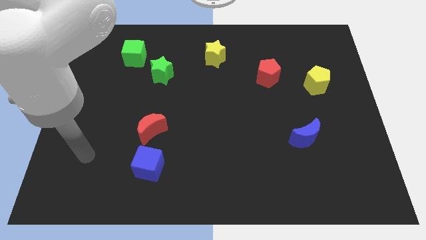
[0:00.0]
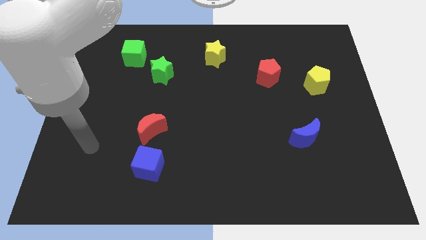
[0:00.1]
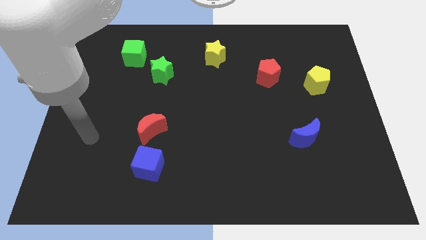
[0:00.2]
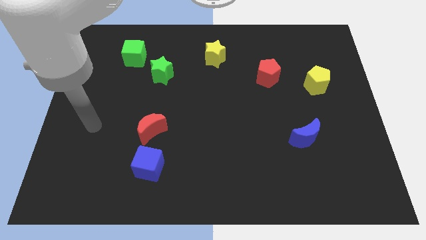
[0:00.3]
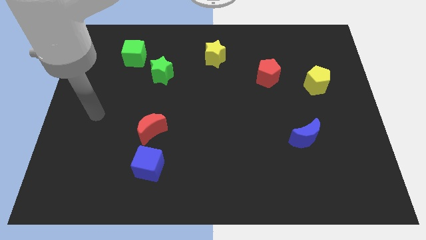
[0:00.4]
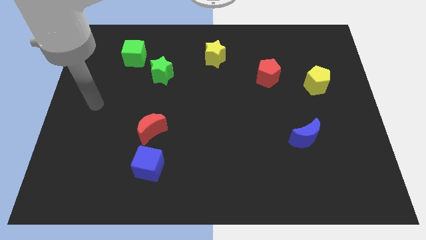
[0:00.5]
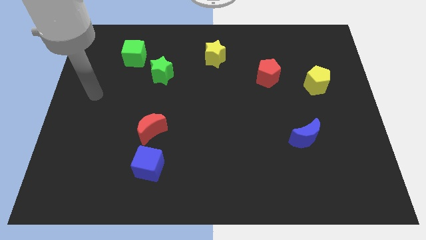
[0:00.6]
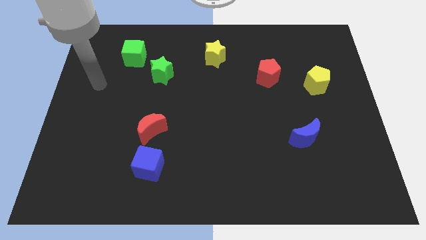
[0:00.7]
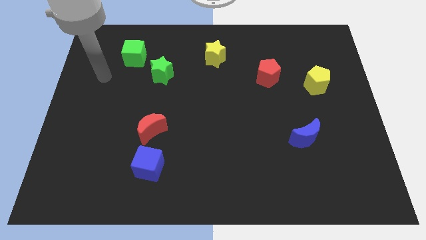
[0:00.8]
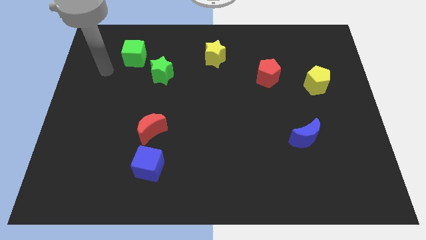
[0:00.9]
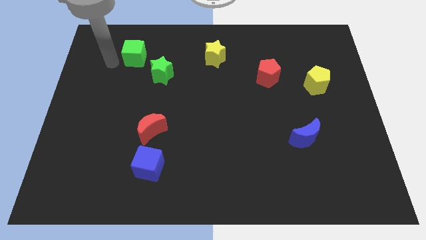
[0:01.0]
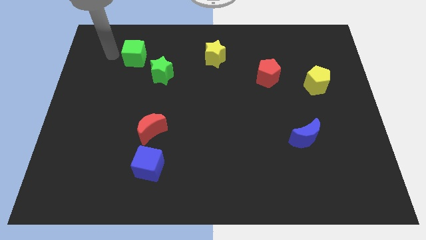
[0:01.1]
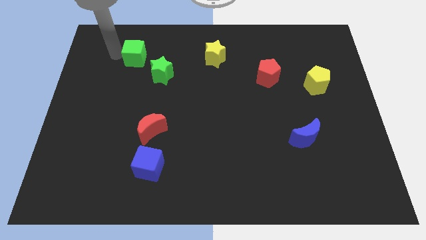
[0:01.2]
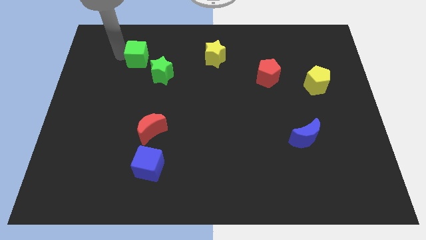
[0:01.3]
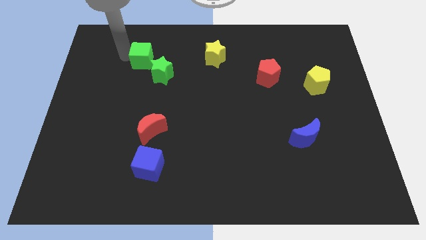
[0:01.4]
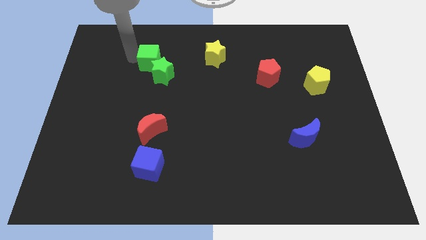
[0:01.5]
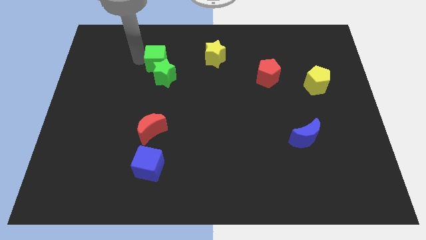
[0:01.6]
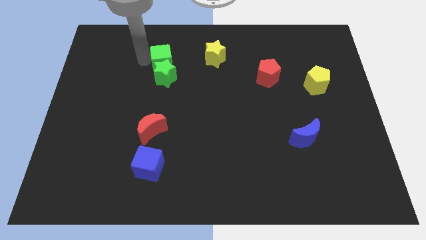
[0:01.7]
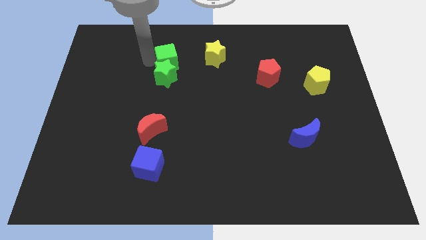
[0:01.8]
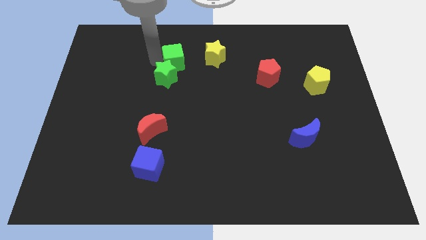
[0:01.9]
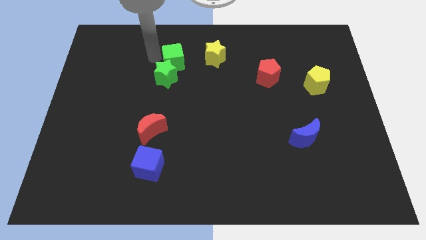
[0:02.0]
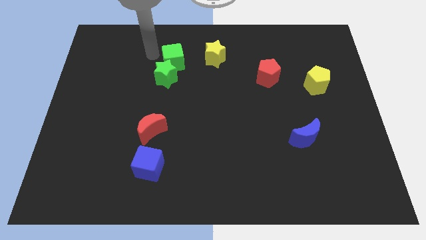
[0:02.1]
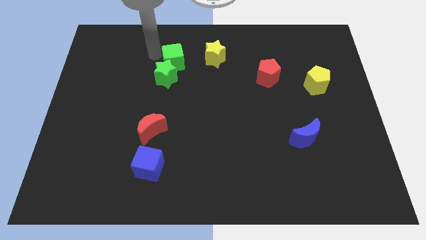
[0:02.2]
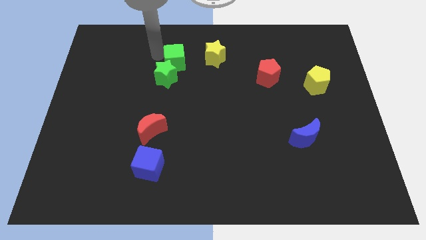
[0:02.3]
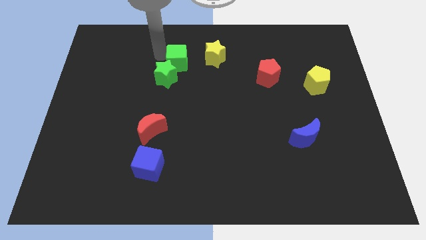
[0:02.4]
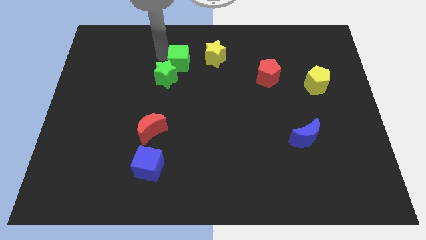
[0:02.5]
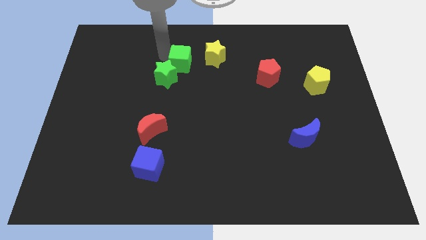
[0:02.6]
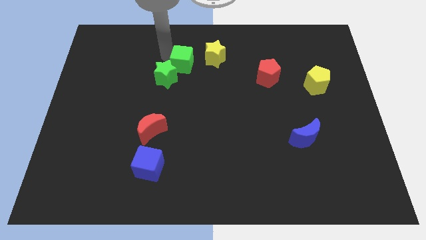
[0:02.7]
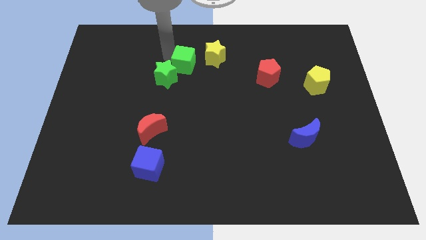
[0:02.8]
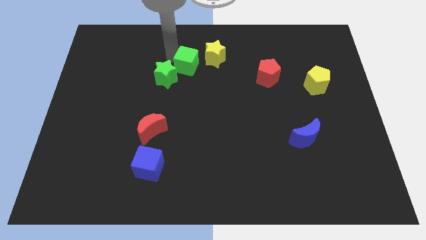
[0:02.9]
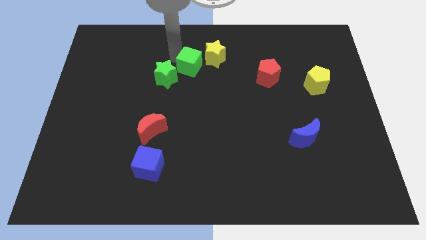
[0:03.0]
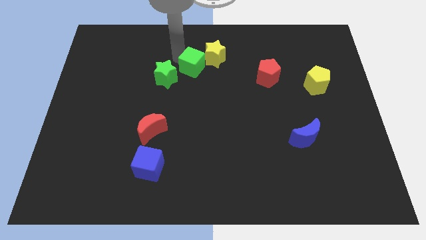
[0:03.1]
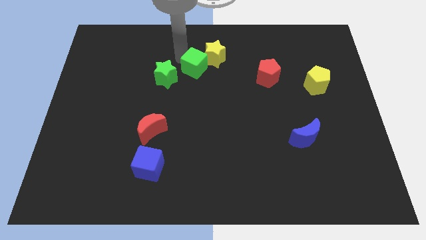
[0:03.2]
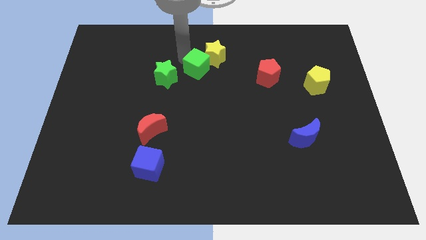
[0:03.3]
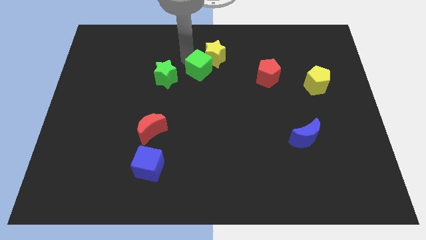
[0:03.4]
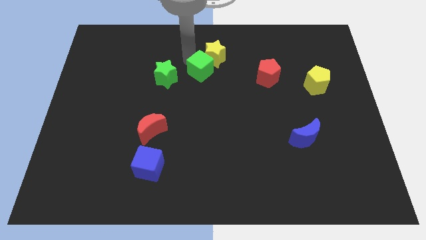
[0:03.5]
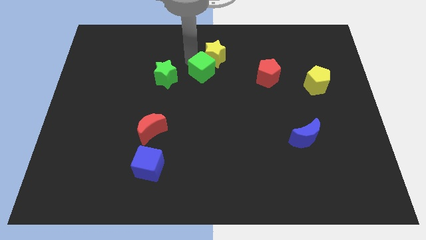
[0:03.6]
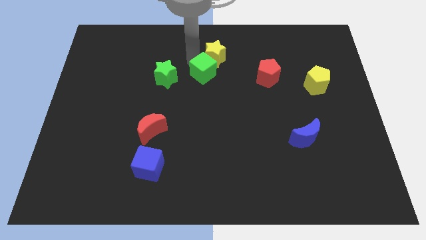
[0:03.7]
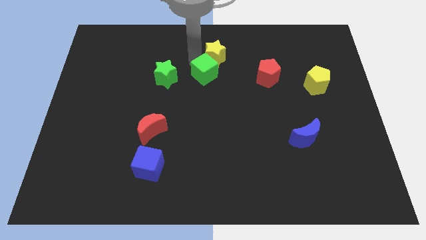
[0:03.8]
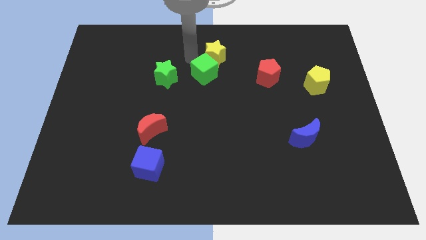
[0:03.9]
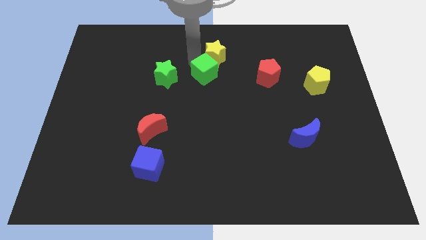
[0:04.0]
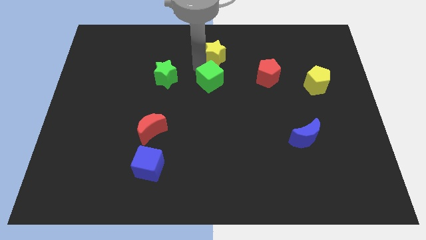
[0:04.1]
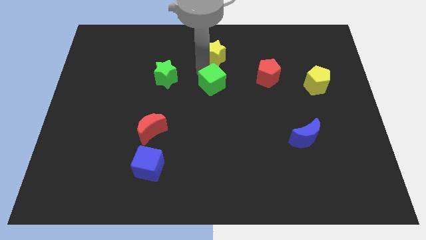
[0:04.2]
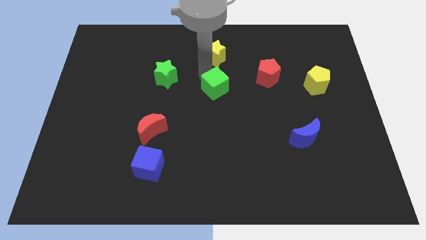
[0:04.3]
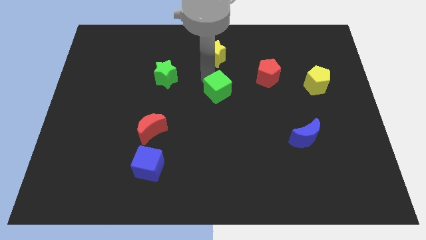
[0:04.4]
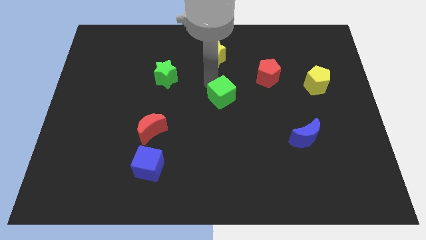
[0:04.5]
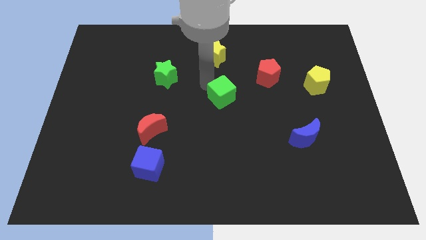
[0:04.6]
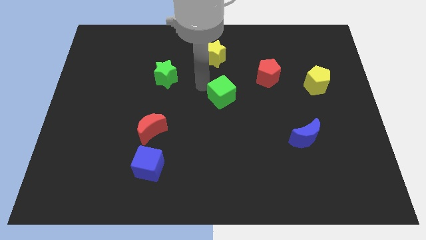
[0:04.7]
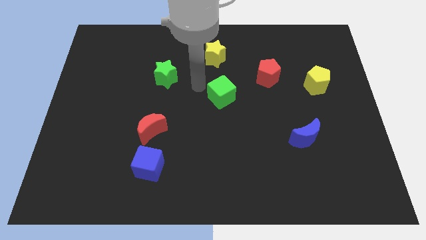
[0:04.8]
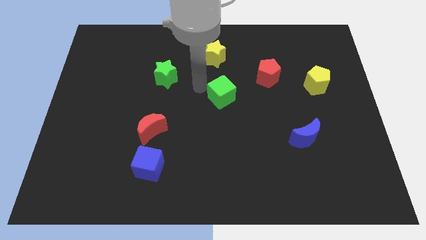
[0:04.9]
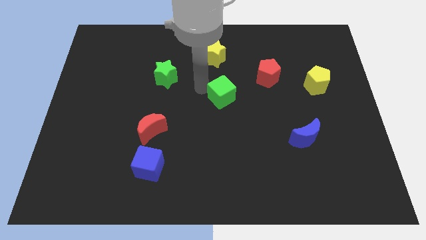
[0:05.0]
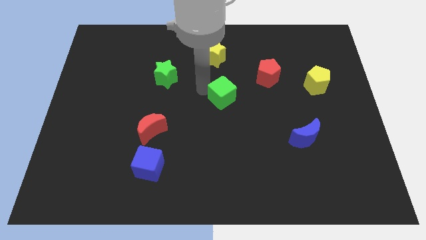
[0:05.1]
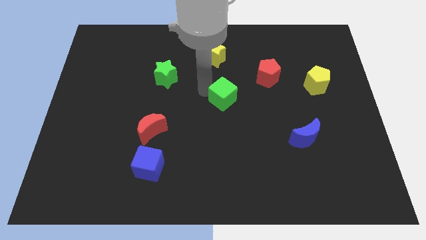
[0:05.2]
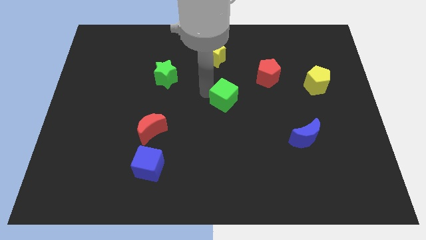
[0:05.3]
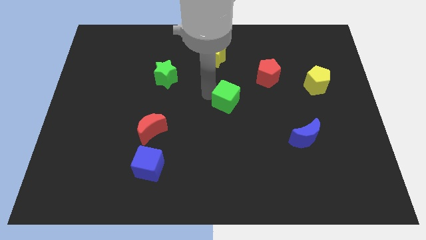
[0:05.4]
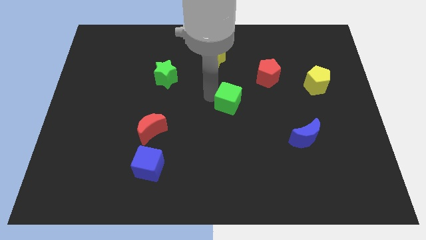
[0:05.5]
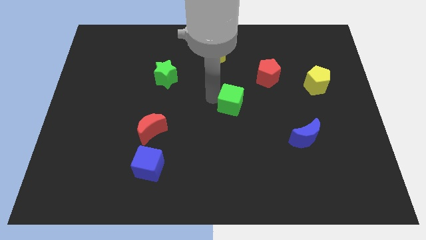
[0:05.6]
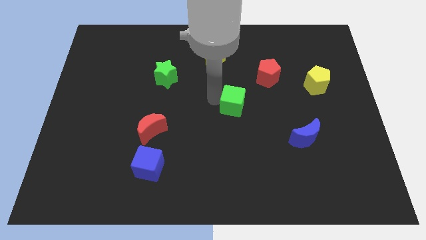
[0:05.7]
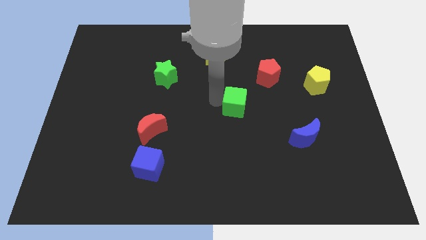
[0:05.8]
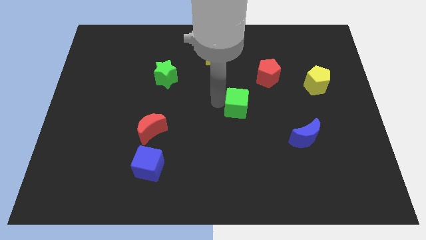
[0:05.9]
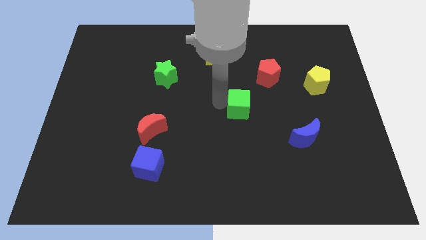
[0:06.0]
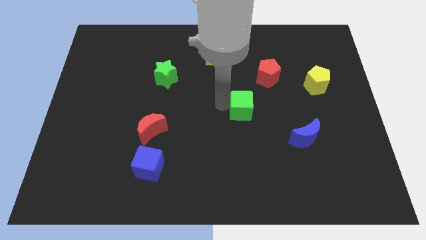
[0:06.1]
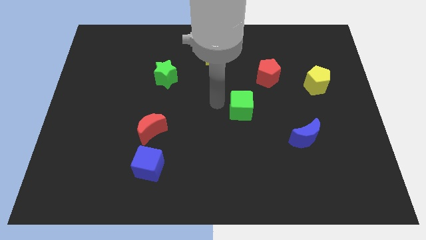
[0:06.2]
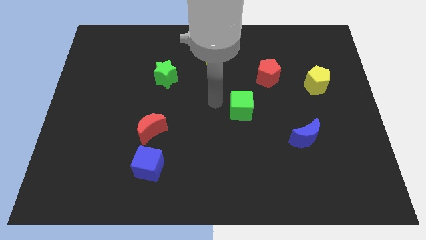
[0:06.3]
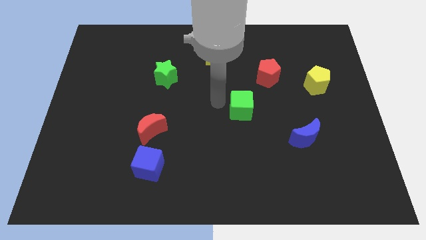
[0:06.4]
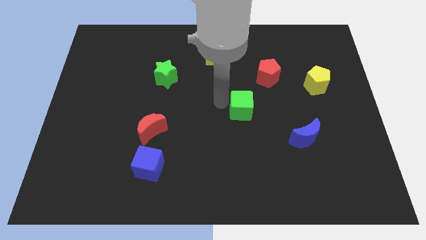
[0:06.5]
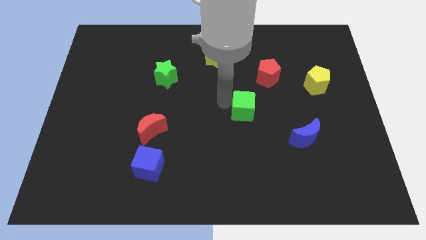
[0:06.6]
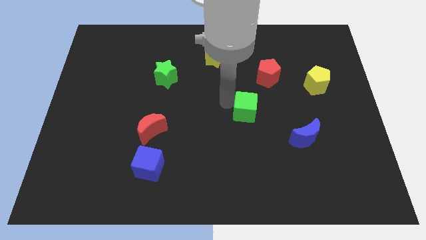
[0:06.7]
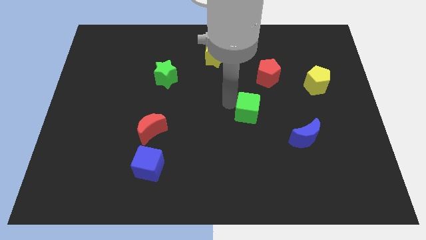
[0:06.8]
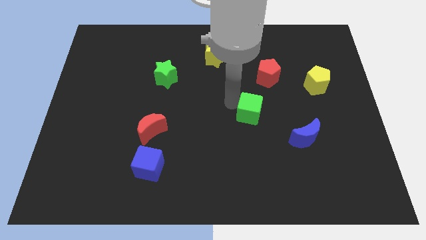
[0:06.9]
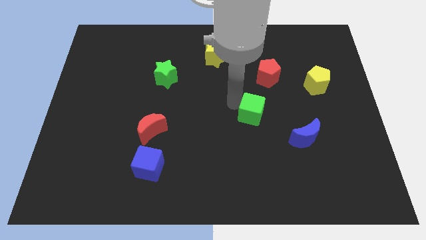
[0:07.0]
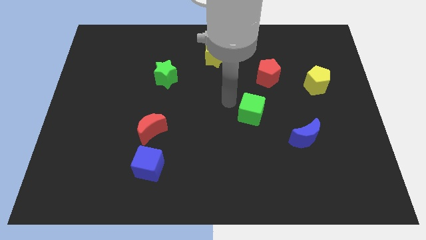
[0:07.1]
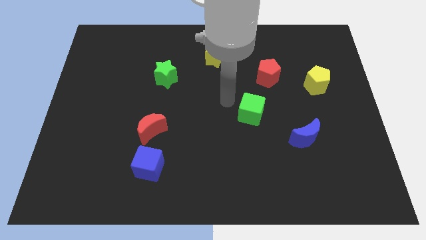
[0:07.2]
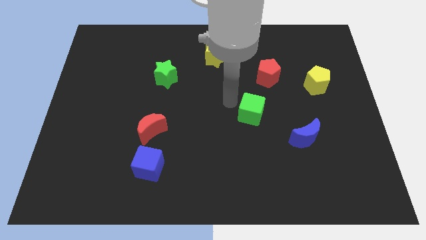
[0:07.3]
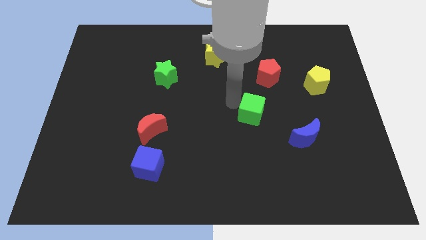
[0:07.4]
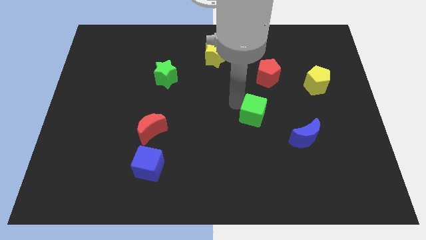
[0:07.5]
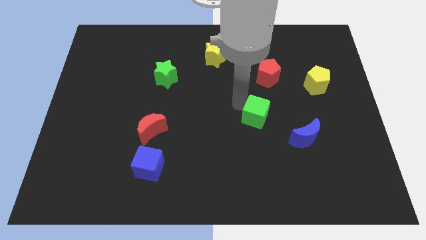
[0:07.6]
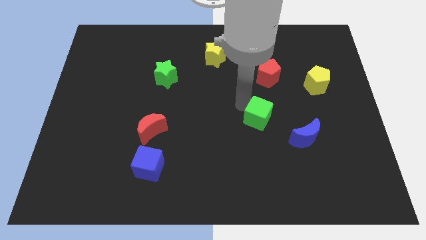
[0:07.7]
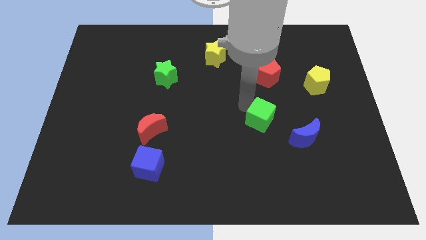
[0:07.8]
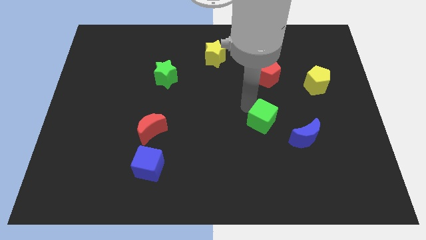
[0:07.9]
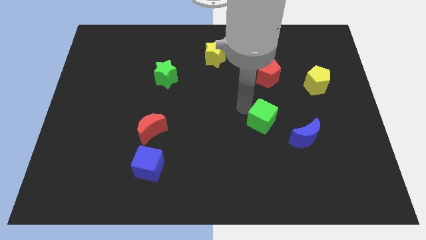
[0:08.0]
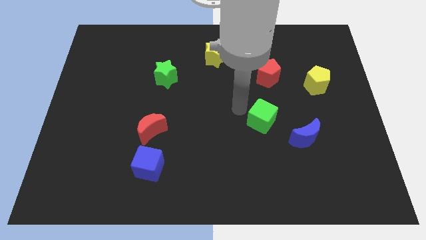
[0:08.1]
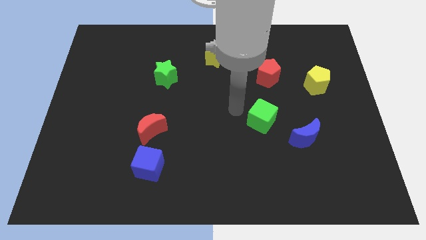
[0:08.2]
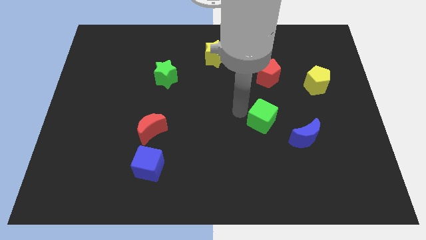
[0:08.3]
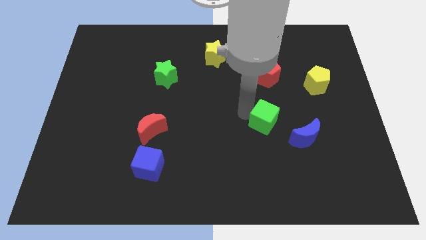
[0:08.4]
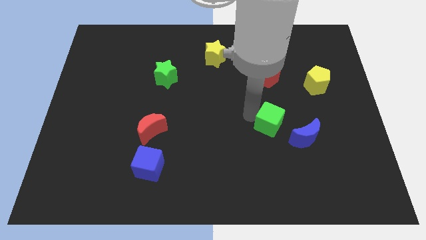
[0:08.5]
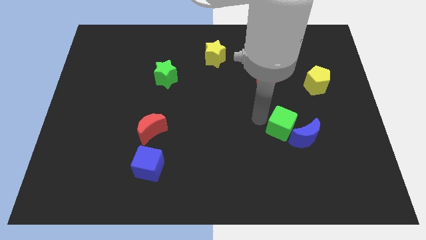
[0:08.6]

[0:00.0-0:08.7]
push the green cube close to the blue moon
